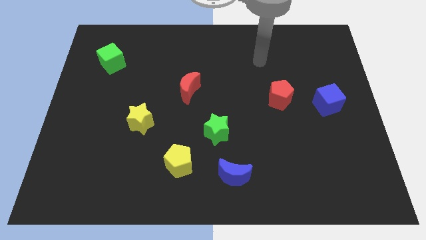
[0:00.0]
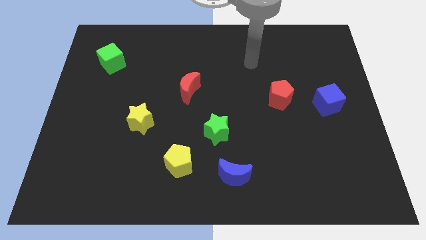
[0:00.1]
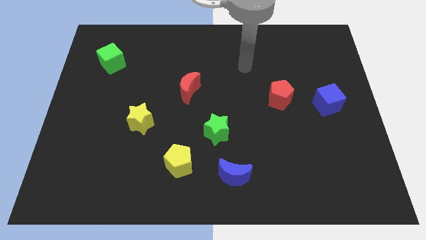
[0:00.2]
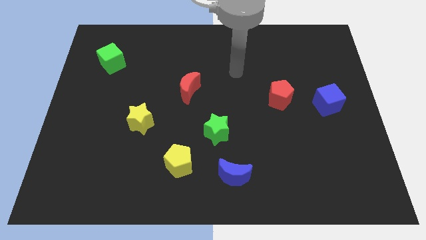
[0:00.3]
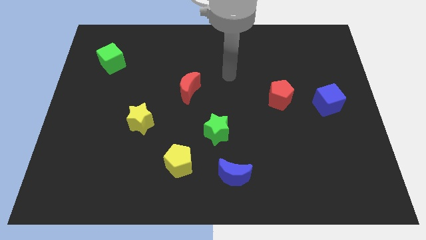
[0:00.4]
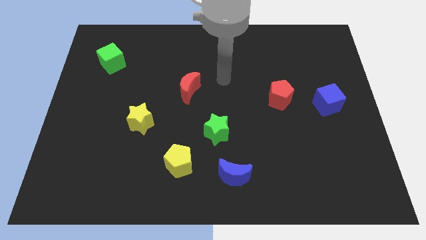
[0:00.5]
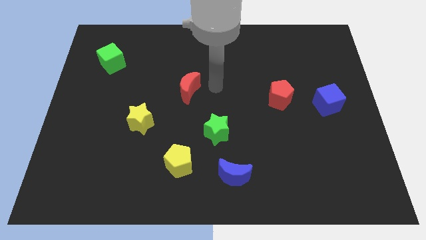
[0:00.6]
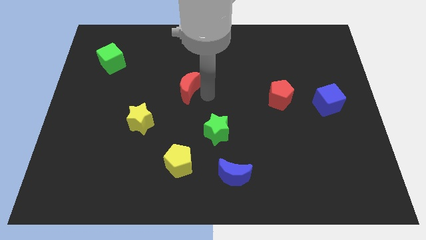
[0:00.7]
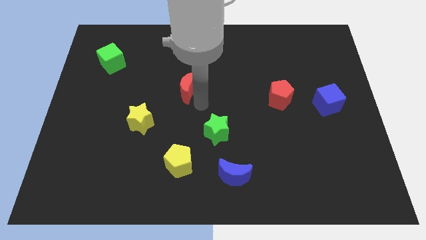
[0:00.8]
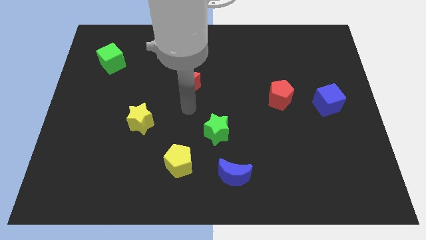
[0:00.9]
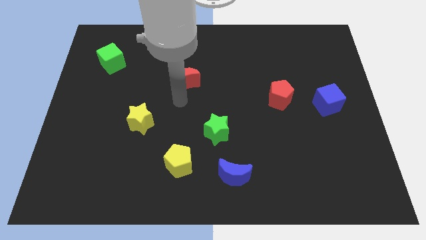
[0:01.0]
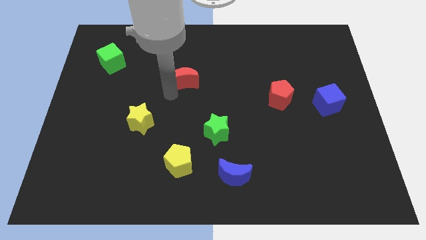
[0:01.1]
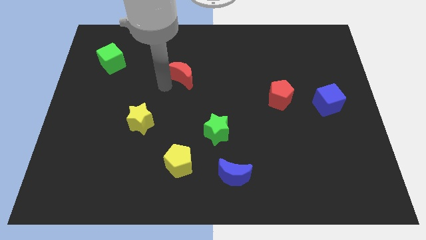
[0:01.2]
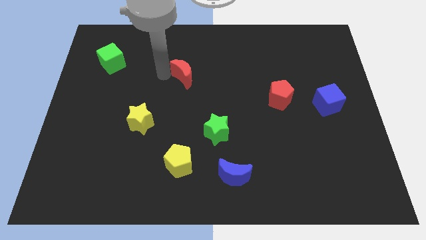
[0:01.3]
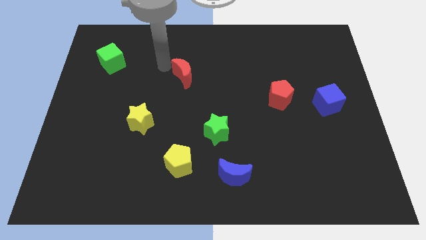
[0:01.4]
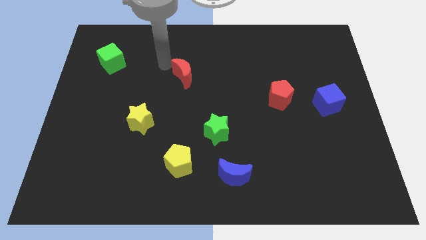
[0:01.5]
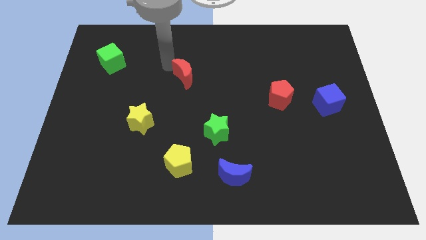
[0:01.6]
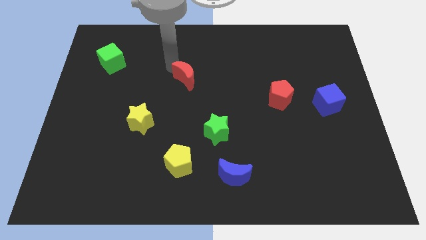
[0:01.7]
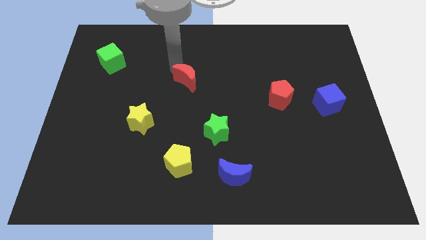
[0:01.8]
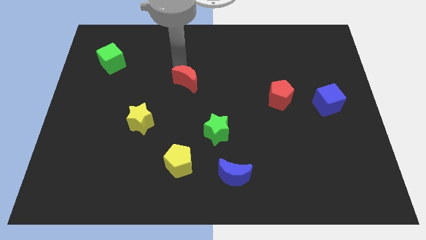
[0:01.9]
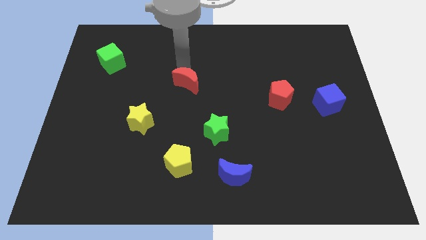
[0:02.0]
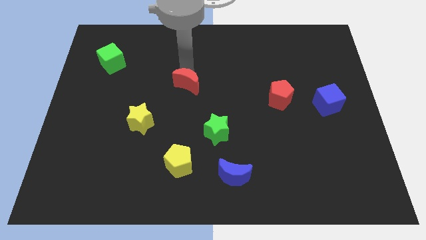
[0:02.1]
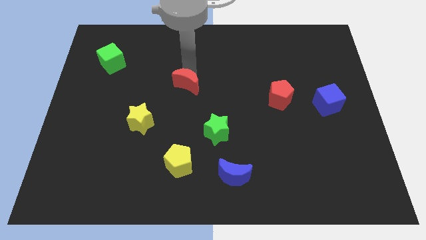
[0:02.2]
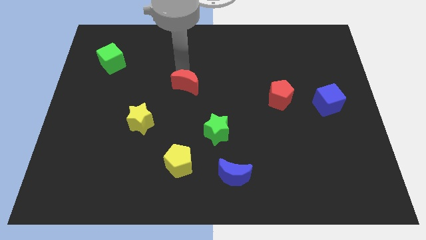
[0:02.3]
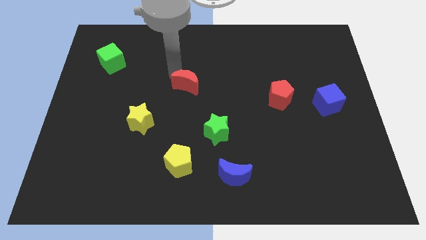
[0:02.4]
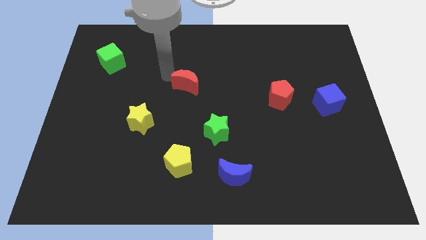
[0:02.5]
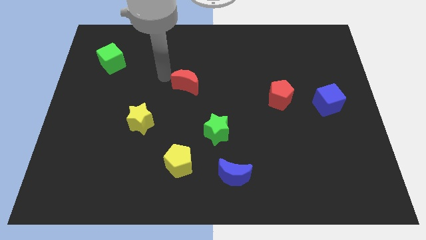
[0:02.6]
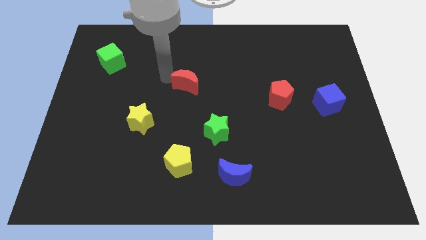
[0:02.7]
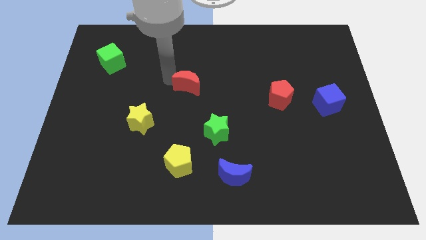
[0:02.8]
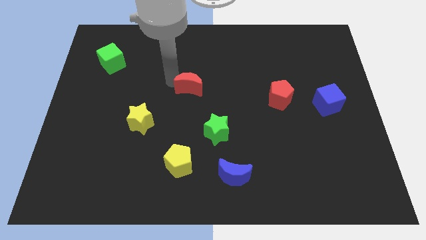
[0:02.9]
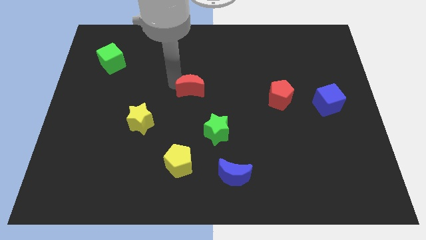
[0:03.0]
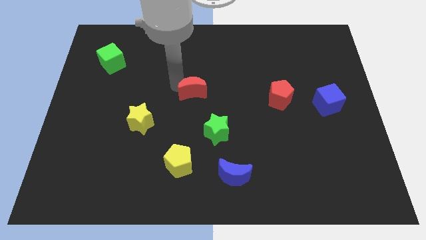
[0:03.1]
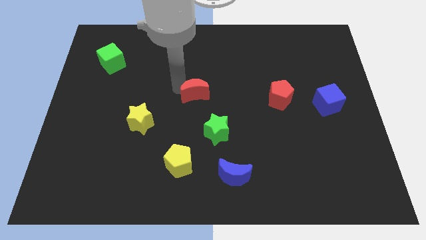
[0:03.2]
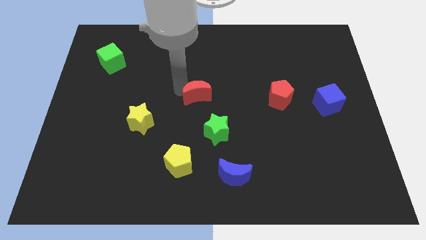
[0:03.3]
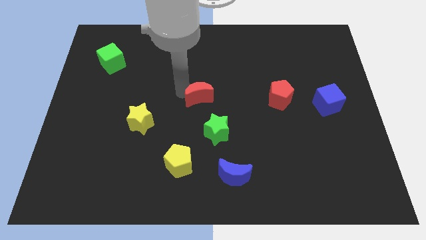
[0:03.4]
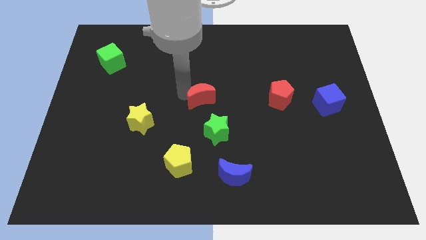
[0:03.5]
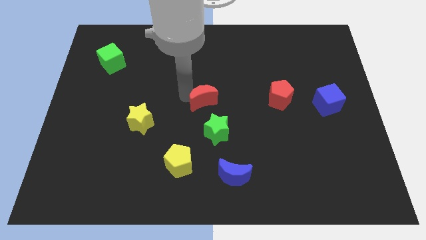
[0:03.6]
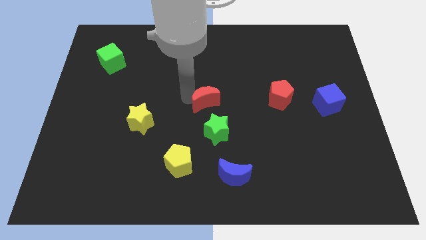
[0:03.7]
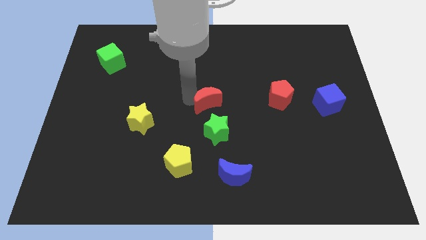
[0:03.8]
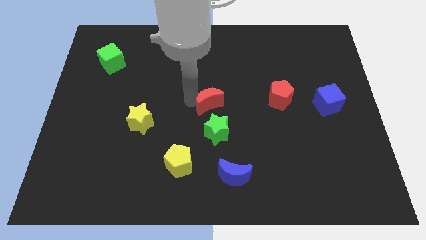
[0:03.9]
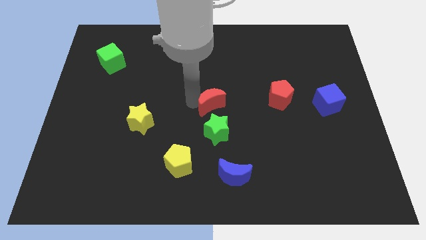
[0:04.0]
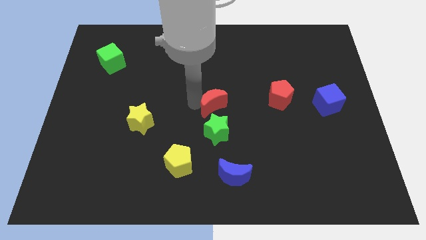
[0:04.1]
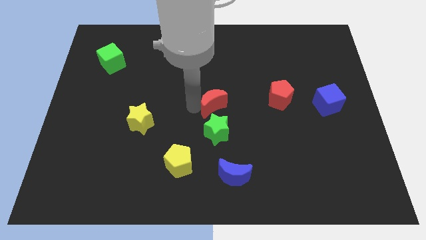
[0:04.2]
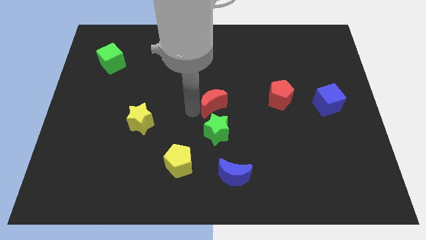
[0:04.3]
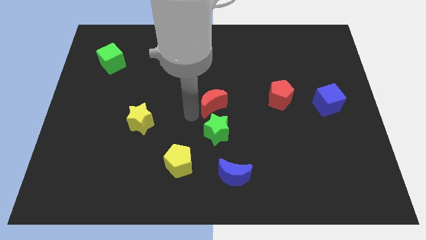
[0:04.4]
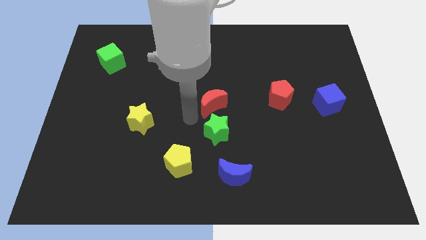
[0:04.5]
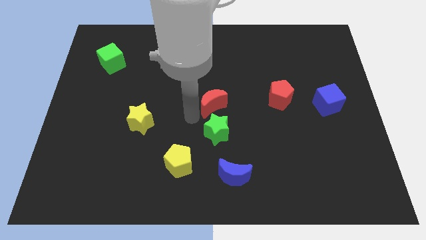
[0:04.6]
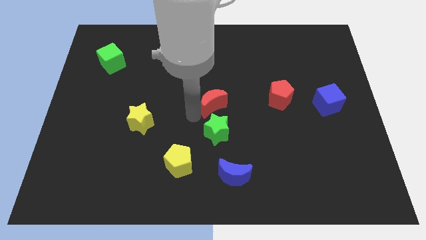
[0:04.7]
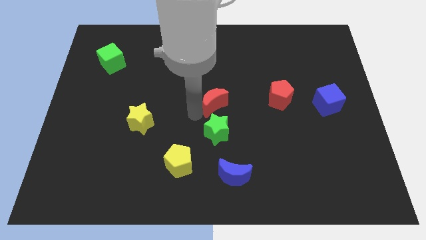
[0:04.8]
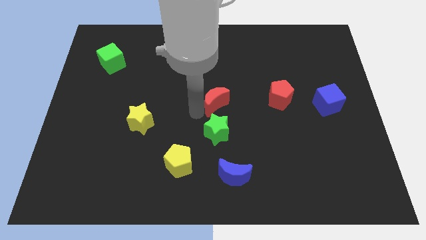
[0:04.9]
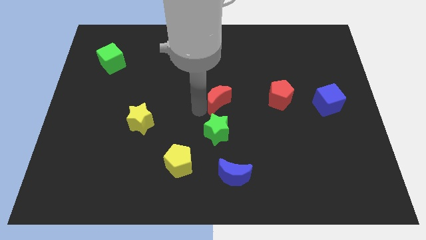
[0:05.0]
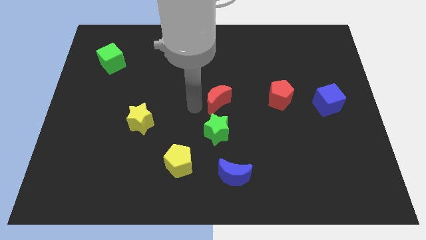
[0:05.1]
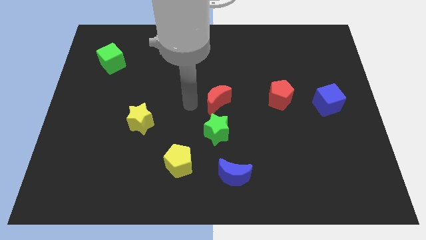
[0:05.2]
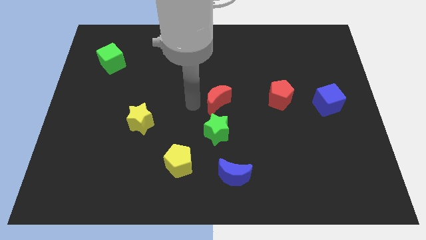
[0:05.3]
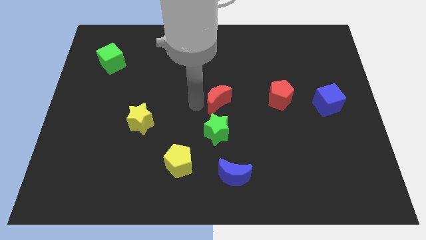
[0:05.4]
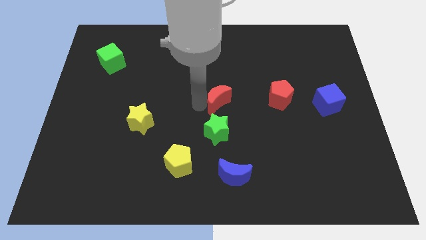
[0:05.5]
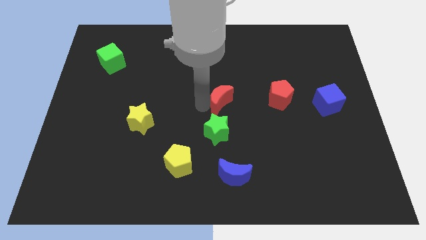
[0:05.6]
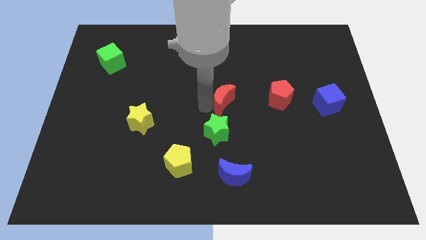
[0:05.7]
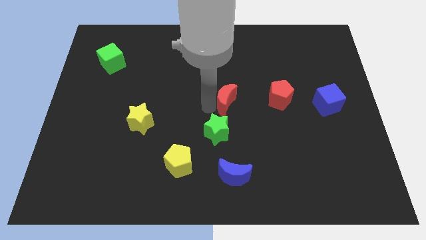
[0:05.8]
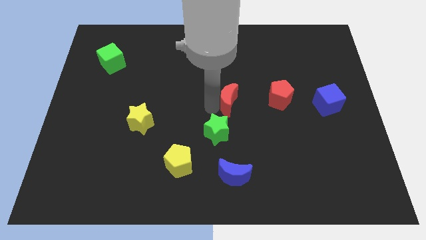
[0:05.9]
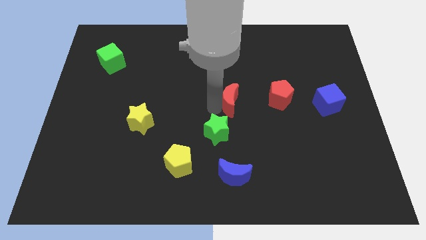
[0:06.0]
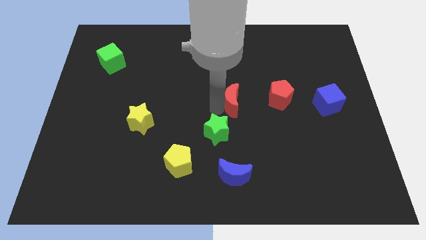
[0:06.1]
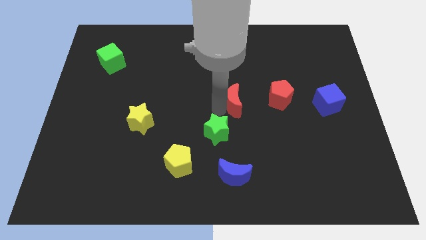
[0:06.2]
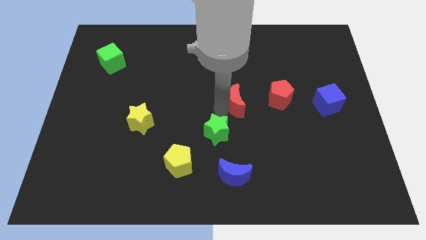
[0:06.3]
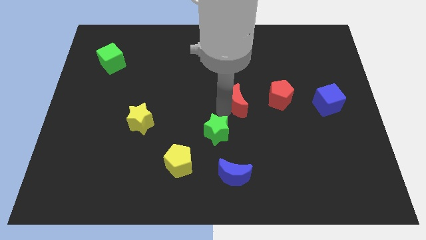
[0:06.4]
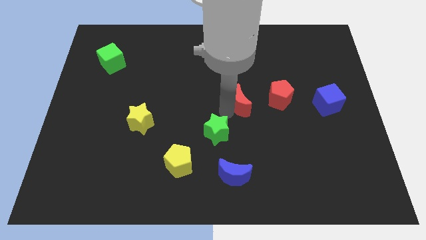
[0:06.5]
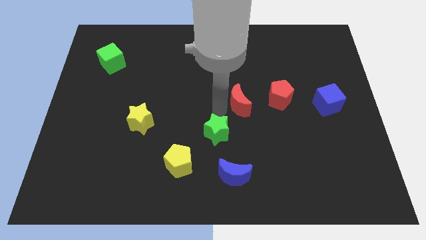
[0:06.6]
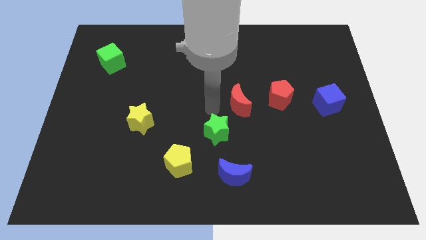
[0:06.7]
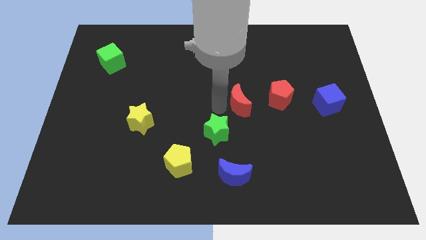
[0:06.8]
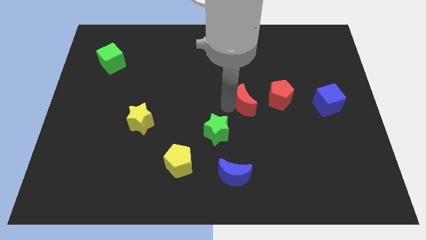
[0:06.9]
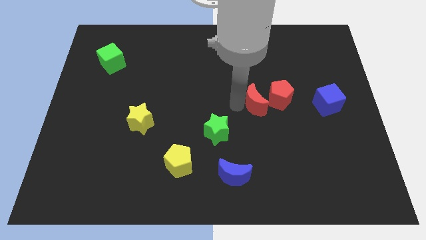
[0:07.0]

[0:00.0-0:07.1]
push the red moon towards the red pentagon

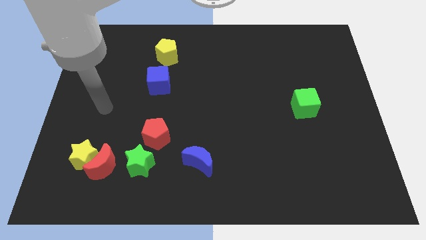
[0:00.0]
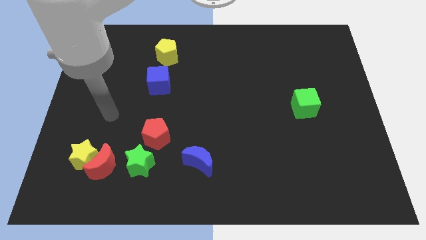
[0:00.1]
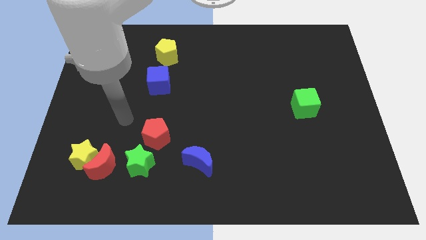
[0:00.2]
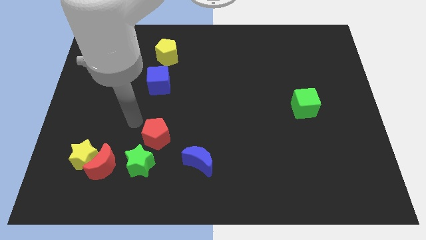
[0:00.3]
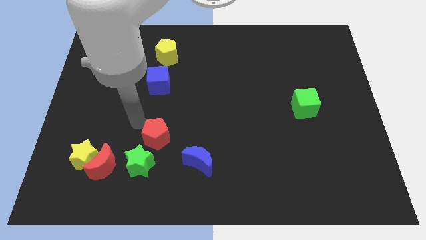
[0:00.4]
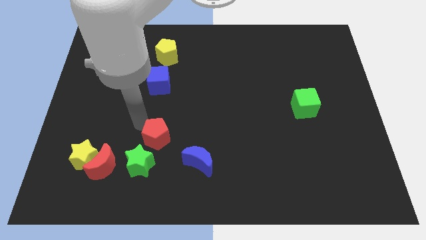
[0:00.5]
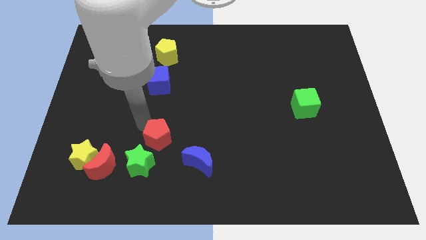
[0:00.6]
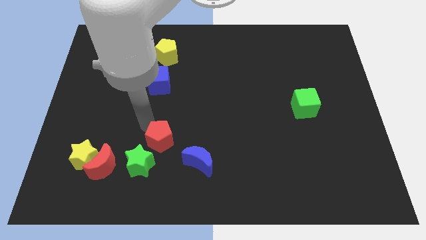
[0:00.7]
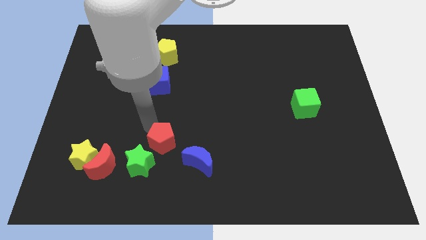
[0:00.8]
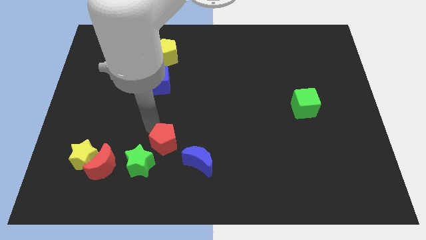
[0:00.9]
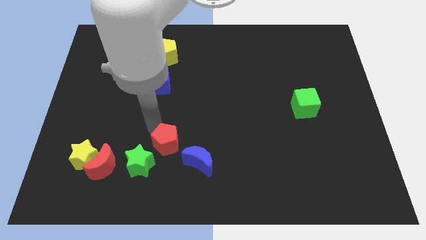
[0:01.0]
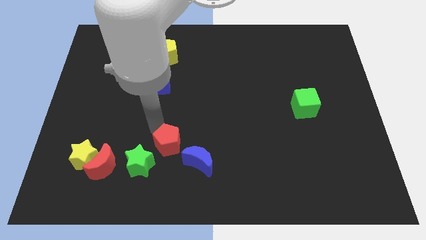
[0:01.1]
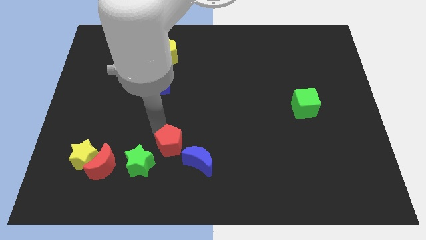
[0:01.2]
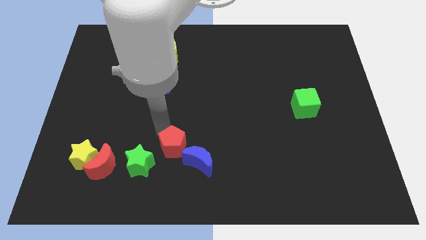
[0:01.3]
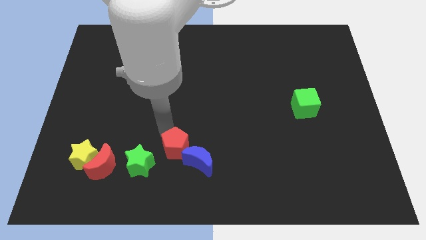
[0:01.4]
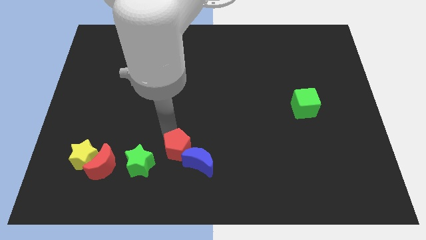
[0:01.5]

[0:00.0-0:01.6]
put the red pentagon to the blue moon
